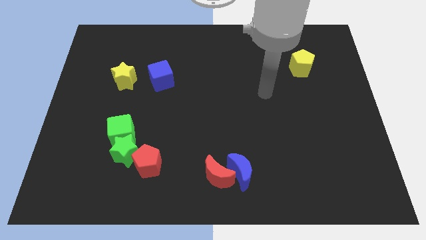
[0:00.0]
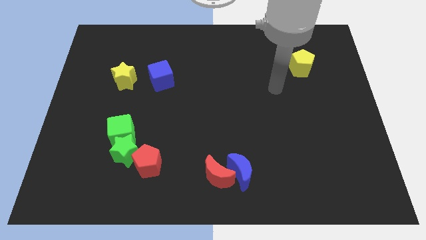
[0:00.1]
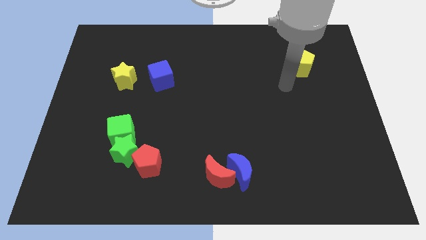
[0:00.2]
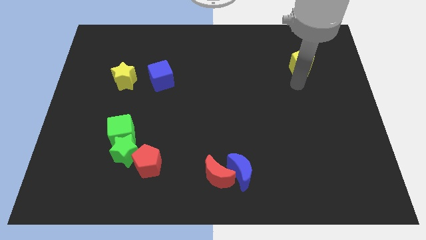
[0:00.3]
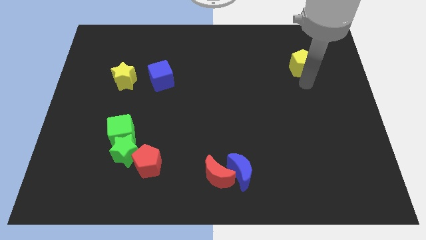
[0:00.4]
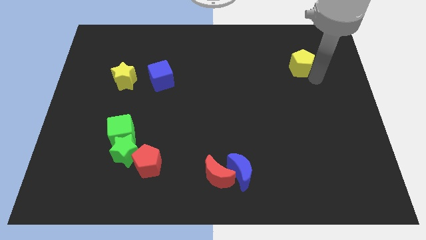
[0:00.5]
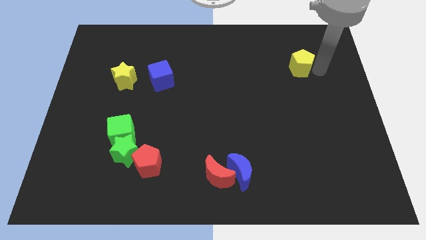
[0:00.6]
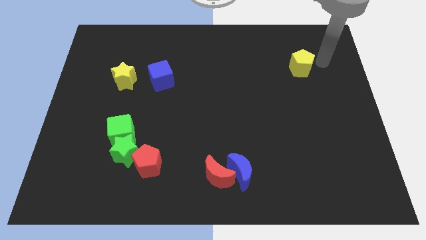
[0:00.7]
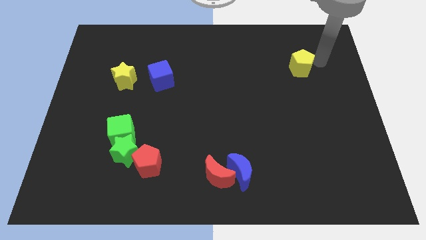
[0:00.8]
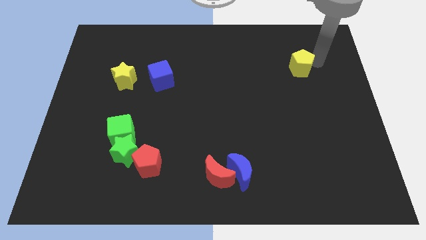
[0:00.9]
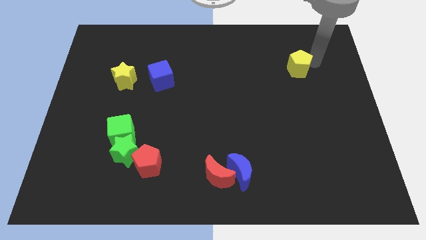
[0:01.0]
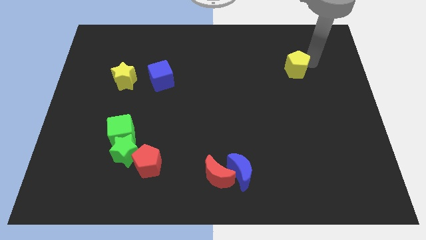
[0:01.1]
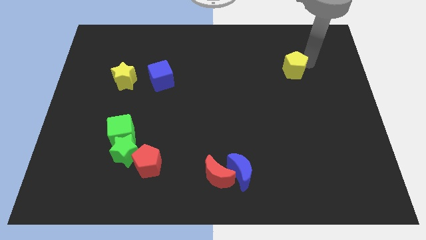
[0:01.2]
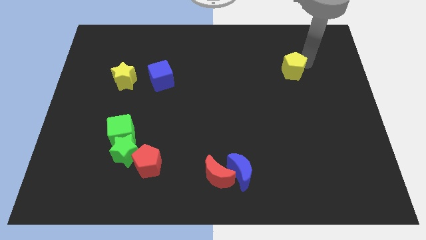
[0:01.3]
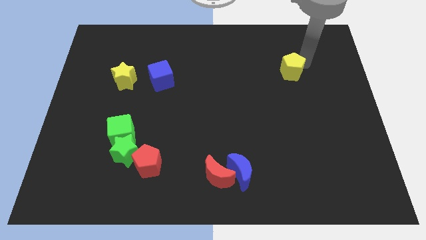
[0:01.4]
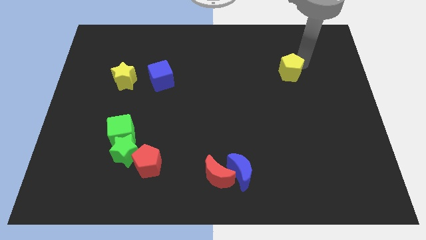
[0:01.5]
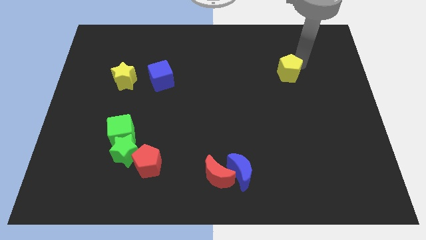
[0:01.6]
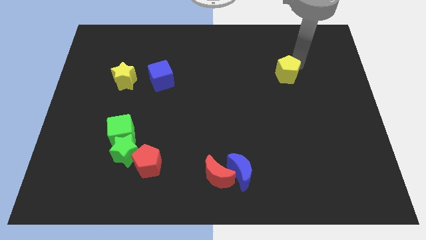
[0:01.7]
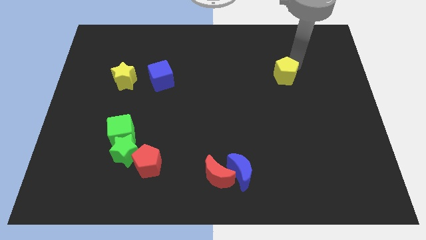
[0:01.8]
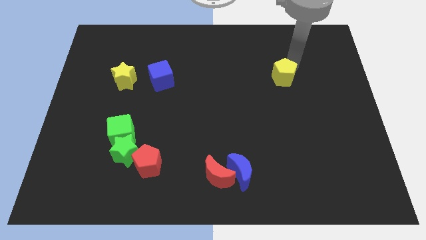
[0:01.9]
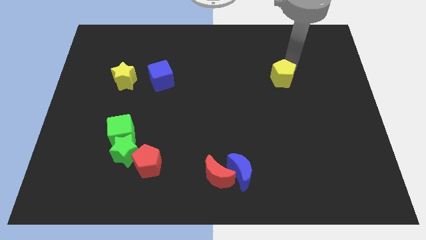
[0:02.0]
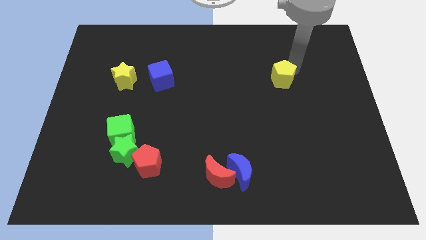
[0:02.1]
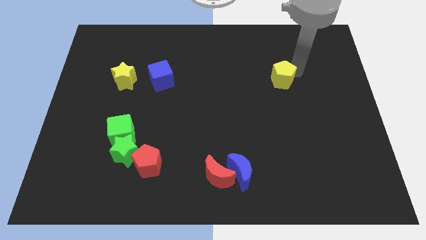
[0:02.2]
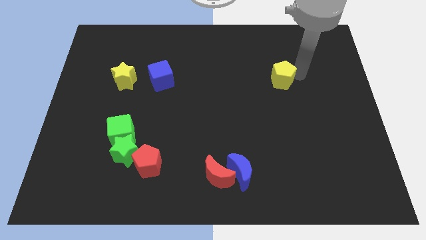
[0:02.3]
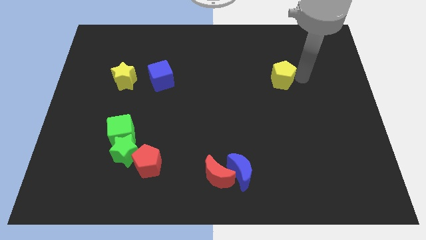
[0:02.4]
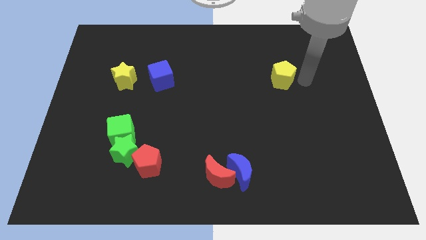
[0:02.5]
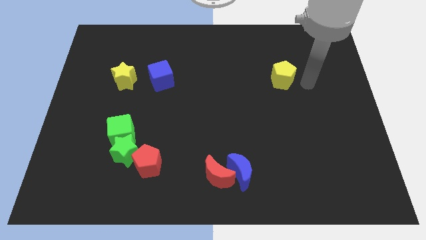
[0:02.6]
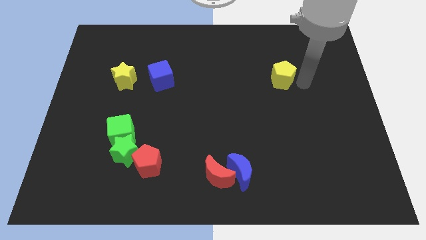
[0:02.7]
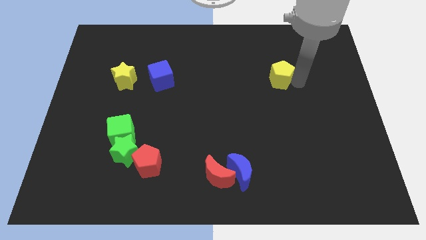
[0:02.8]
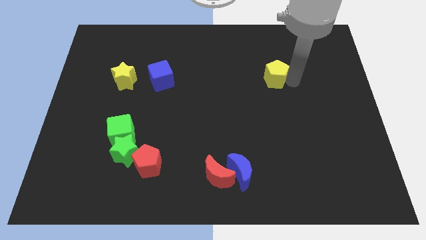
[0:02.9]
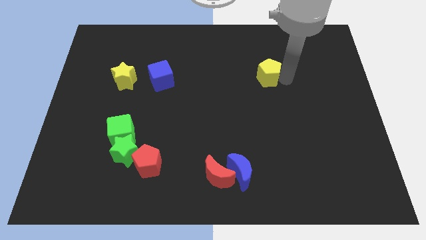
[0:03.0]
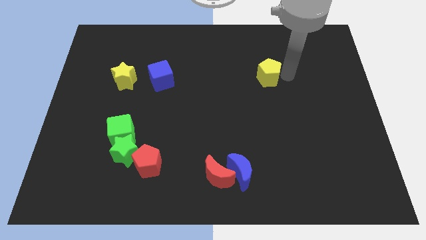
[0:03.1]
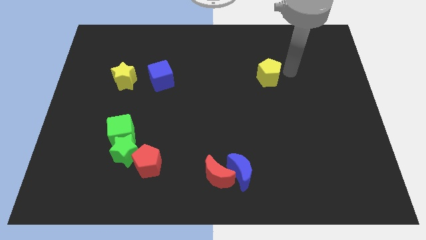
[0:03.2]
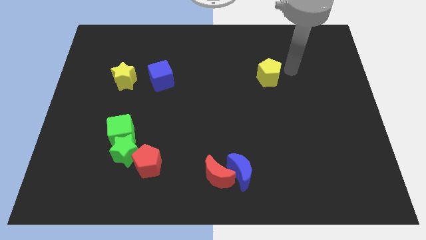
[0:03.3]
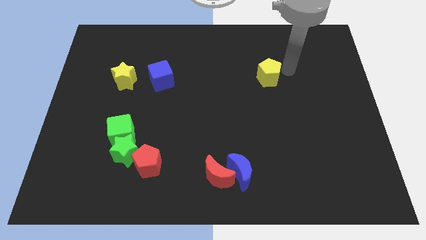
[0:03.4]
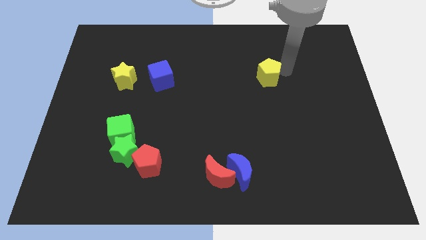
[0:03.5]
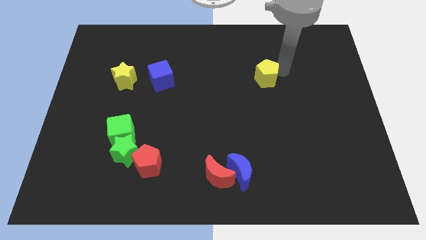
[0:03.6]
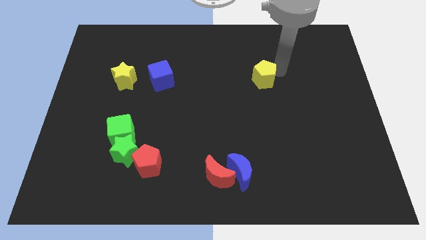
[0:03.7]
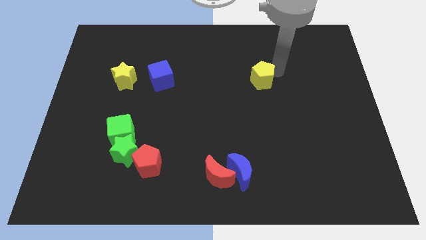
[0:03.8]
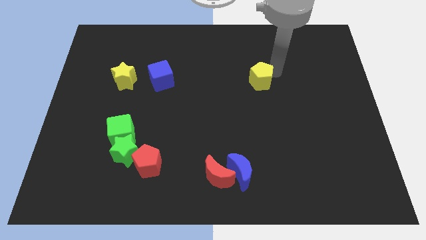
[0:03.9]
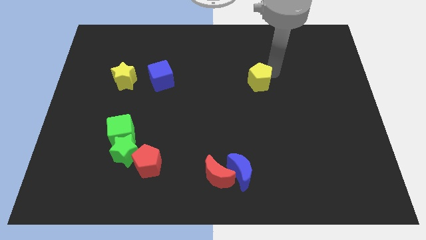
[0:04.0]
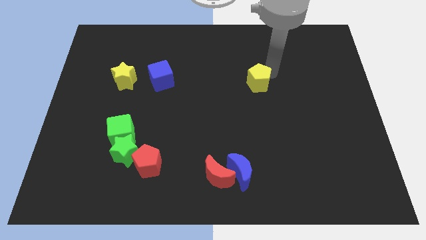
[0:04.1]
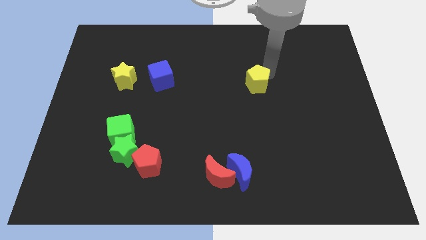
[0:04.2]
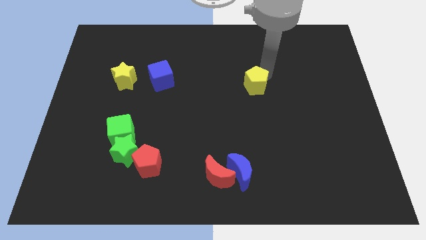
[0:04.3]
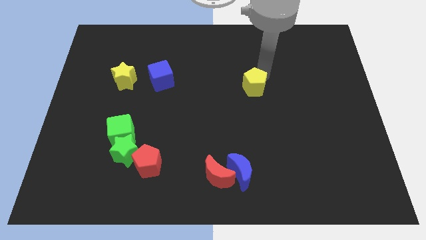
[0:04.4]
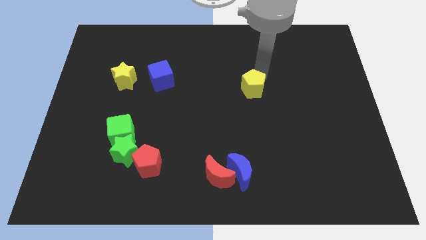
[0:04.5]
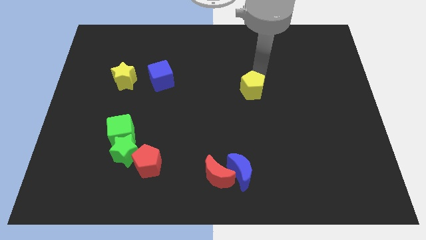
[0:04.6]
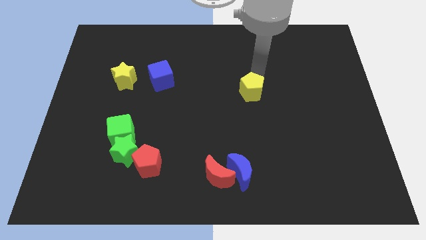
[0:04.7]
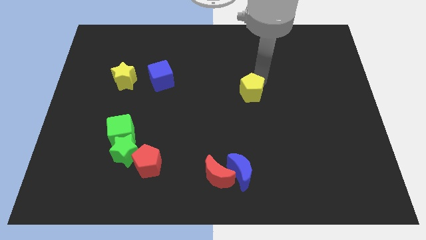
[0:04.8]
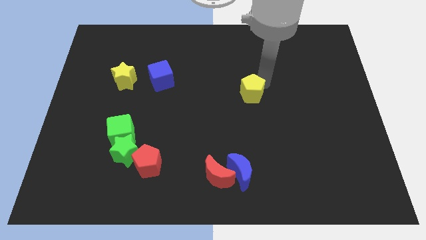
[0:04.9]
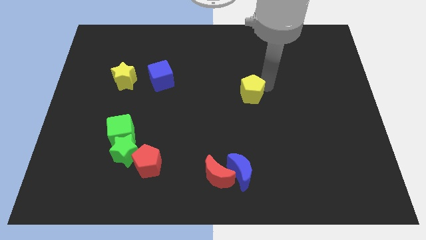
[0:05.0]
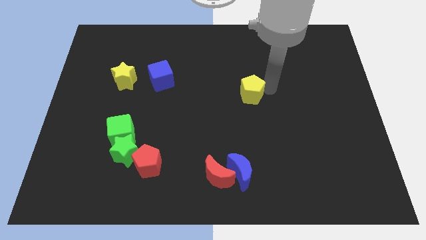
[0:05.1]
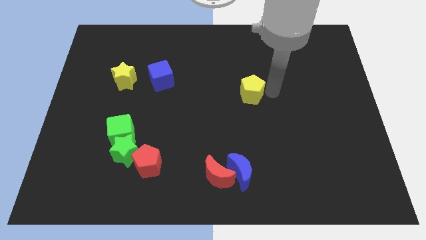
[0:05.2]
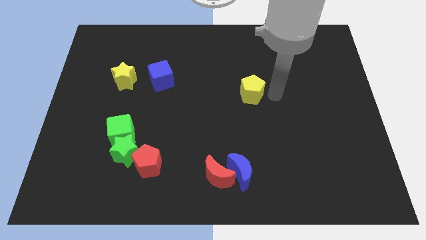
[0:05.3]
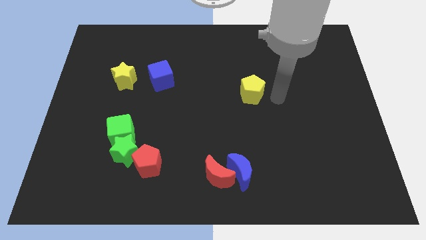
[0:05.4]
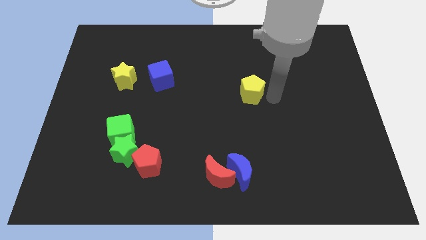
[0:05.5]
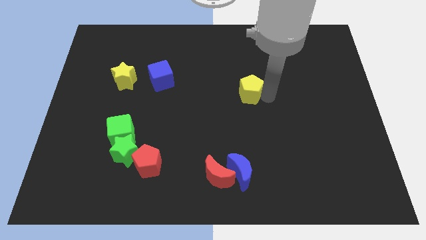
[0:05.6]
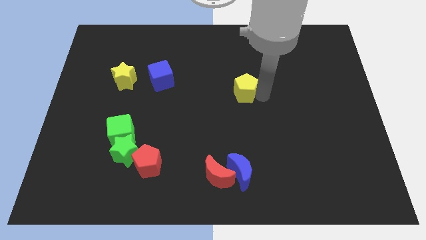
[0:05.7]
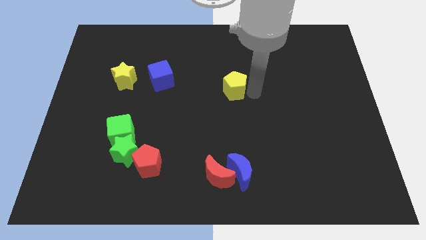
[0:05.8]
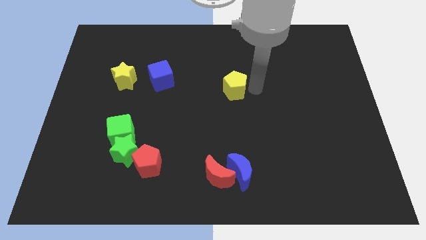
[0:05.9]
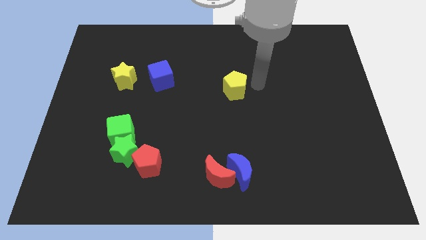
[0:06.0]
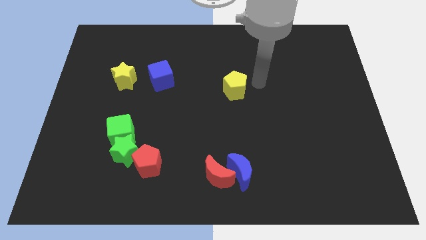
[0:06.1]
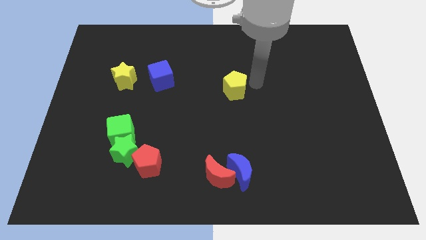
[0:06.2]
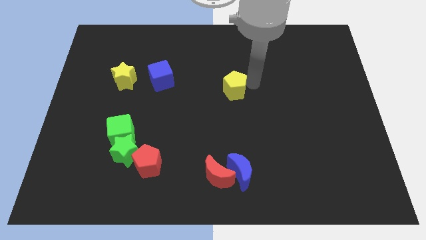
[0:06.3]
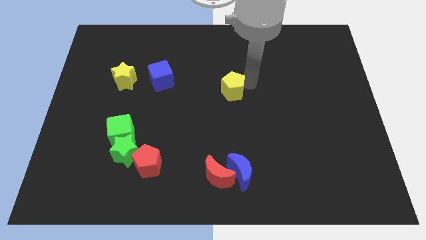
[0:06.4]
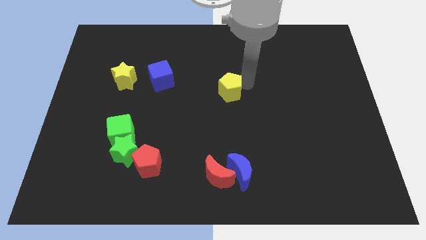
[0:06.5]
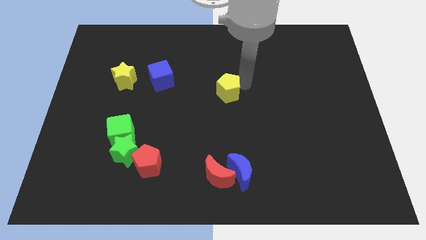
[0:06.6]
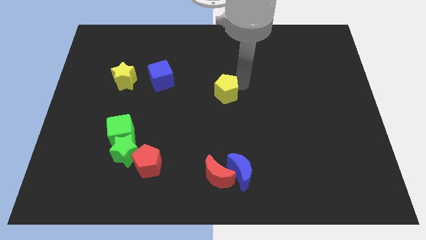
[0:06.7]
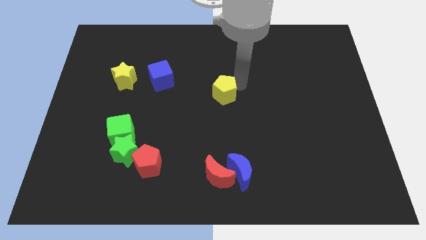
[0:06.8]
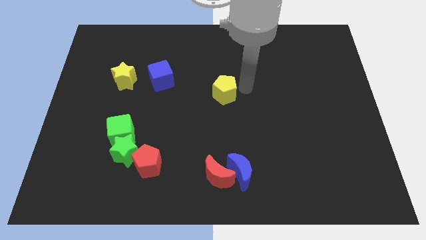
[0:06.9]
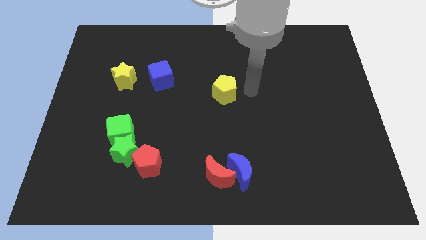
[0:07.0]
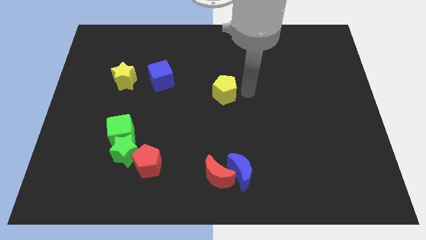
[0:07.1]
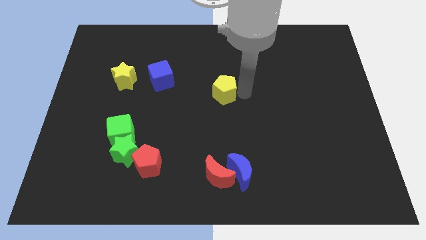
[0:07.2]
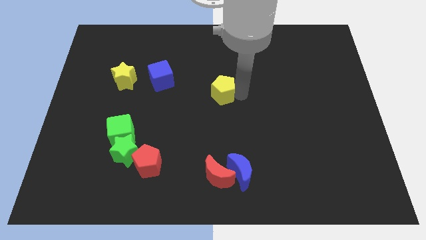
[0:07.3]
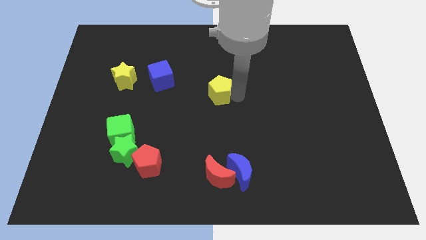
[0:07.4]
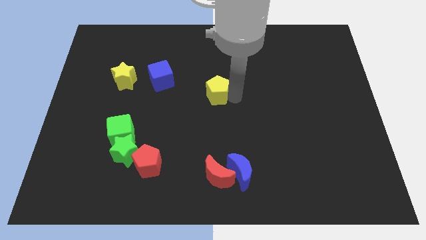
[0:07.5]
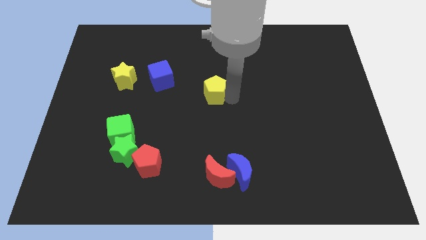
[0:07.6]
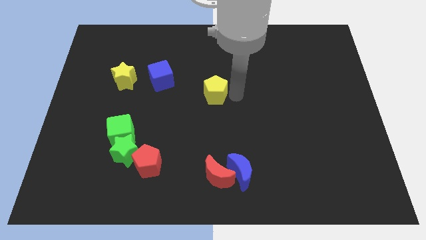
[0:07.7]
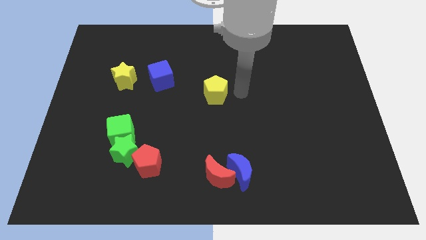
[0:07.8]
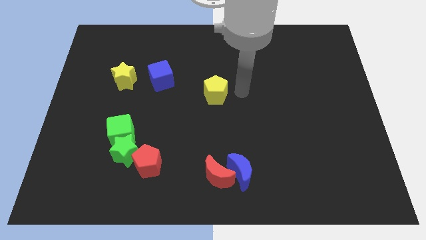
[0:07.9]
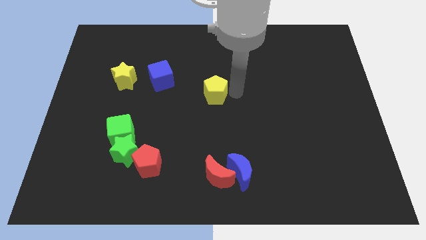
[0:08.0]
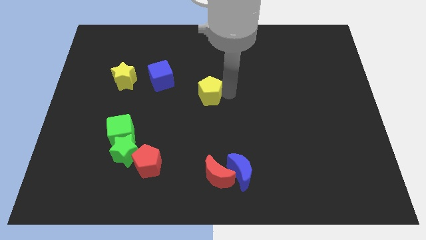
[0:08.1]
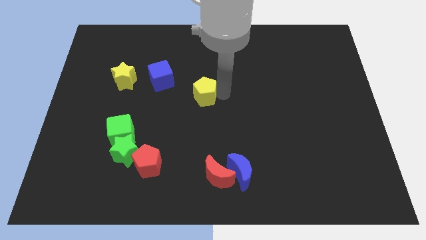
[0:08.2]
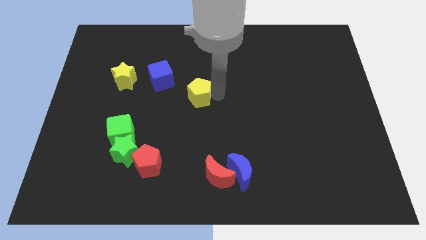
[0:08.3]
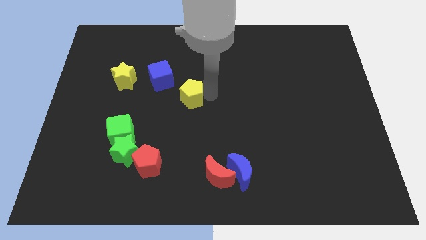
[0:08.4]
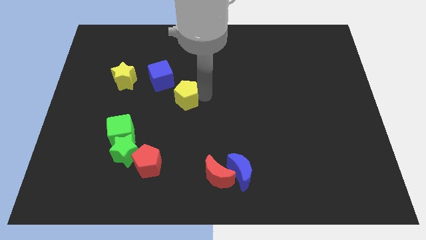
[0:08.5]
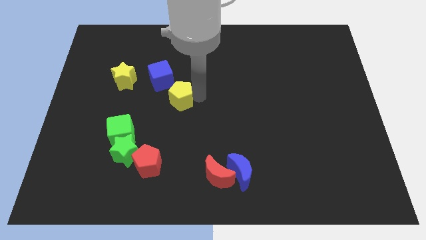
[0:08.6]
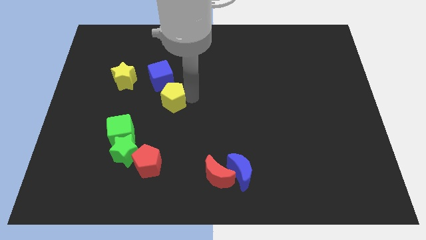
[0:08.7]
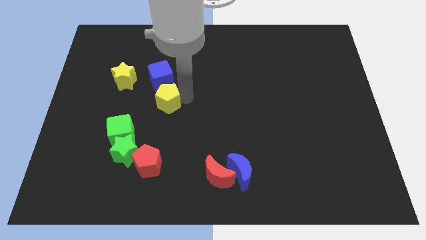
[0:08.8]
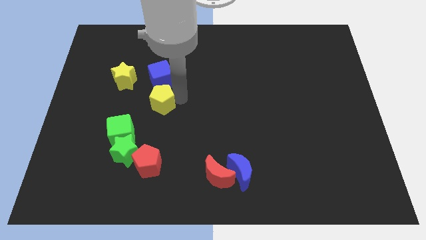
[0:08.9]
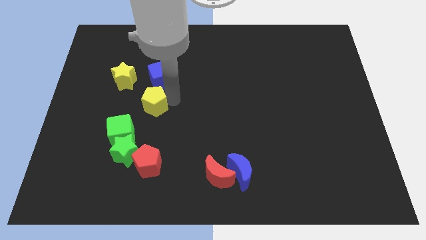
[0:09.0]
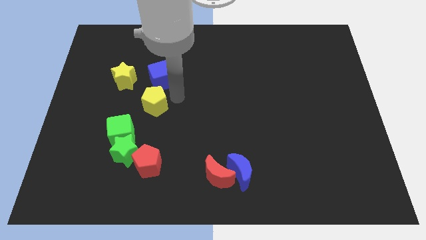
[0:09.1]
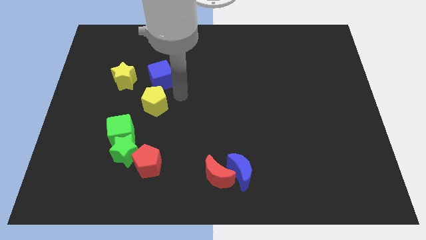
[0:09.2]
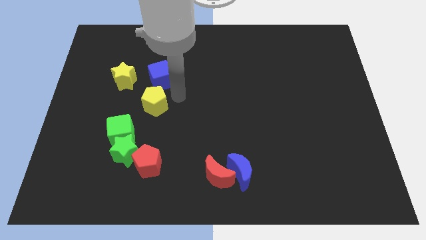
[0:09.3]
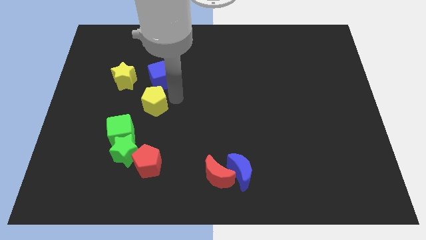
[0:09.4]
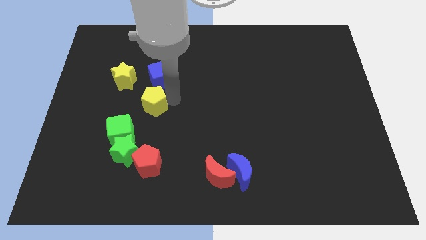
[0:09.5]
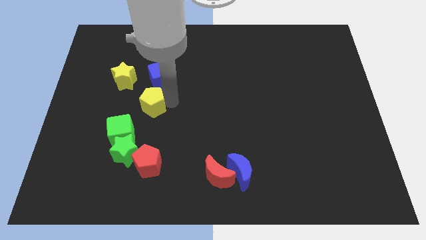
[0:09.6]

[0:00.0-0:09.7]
move the yellow pentagon above the green star
